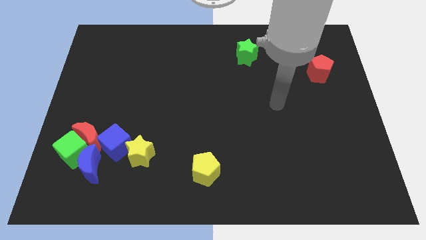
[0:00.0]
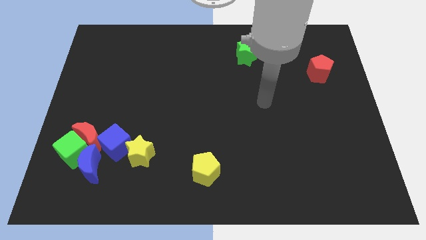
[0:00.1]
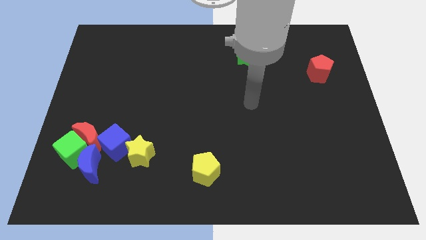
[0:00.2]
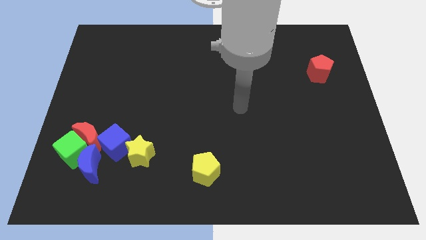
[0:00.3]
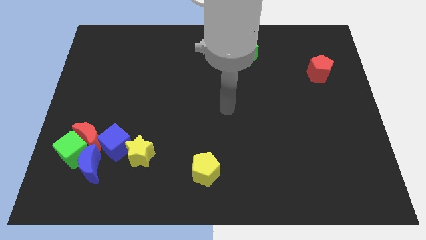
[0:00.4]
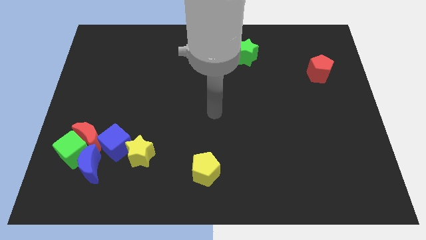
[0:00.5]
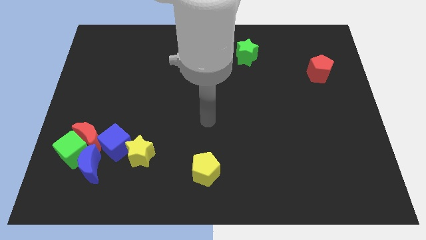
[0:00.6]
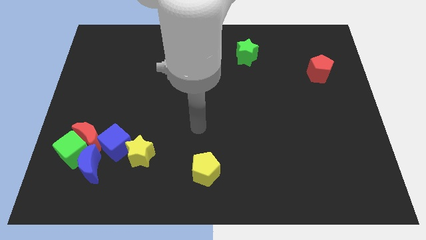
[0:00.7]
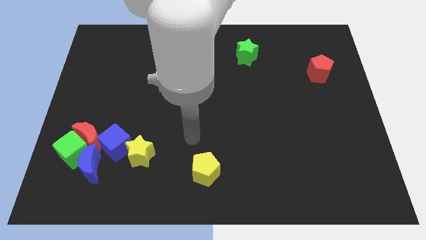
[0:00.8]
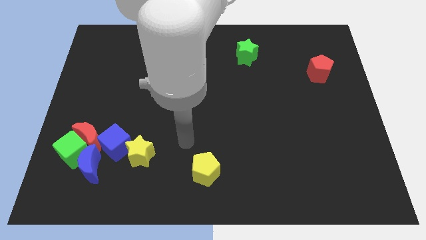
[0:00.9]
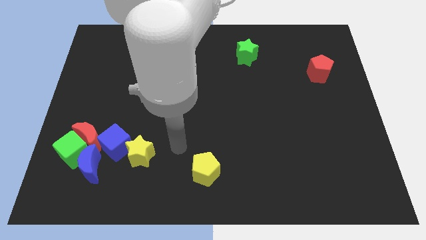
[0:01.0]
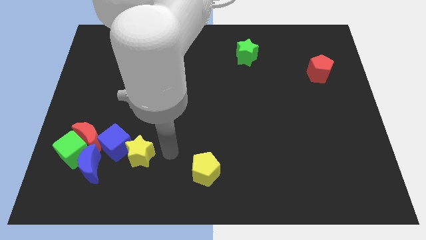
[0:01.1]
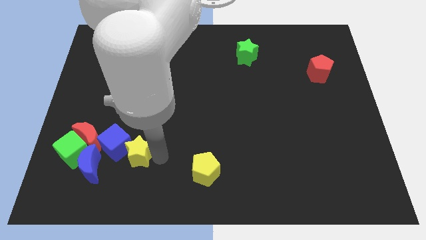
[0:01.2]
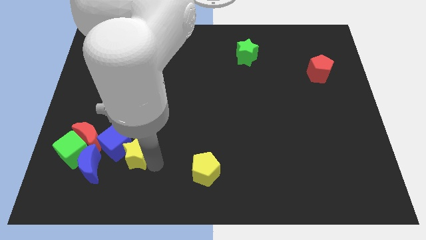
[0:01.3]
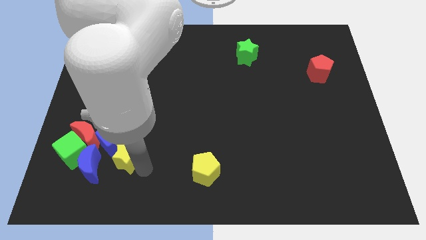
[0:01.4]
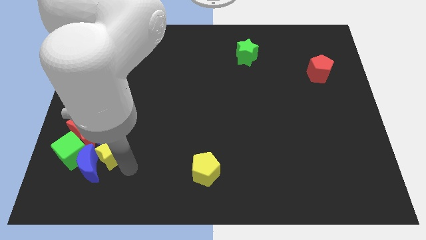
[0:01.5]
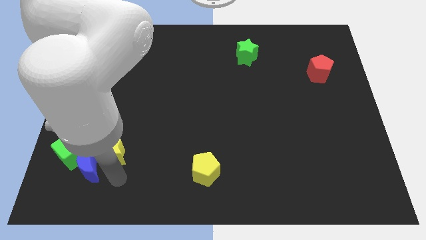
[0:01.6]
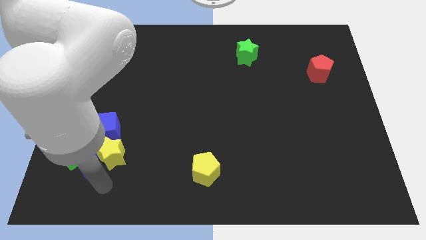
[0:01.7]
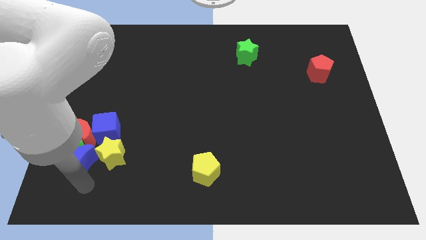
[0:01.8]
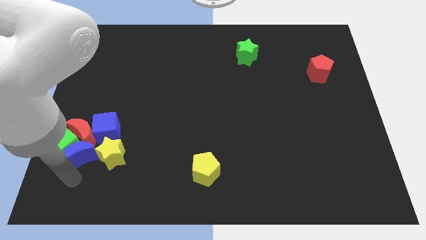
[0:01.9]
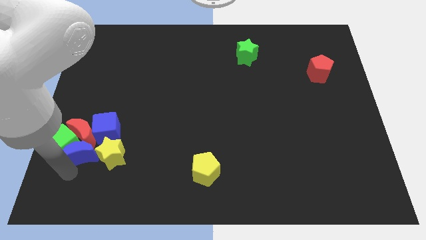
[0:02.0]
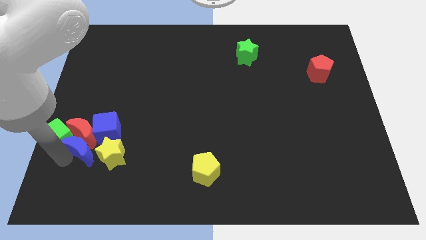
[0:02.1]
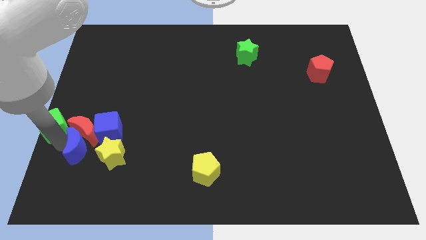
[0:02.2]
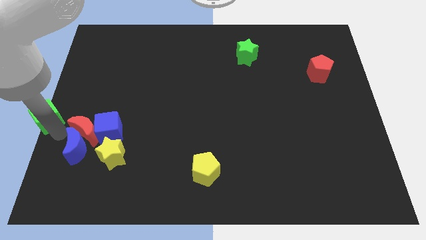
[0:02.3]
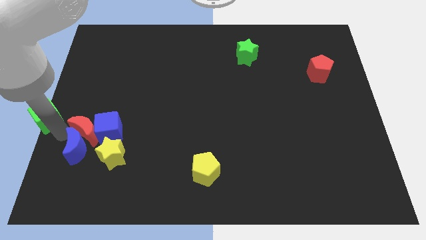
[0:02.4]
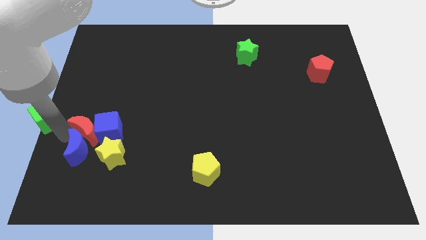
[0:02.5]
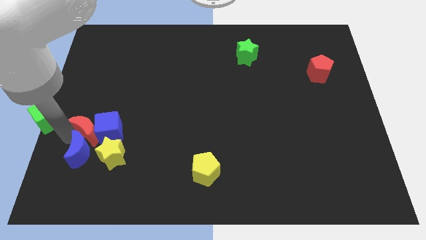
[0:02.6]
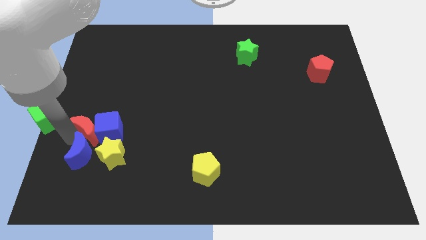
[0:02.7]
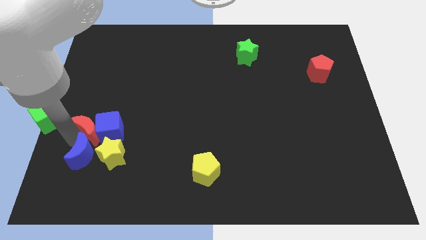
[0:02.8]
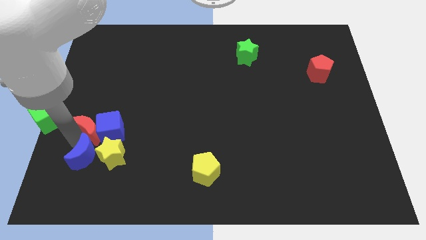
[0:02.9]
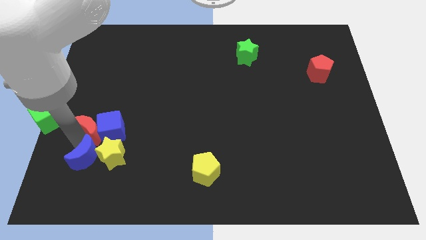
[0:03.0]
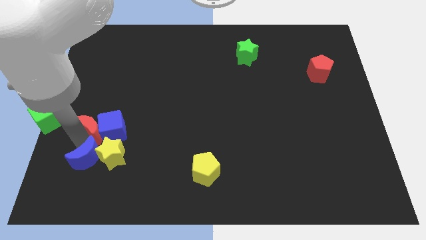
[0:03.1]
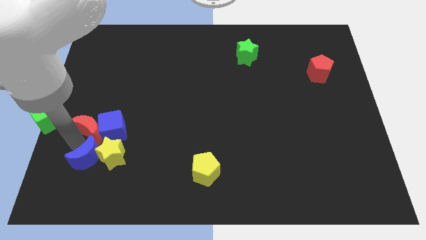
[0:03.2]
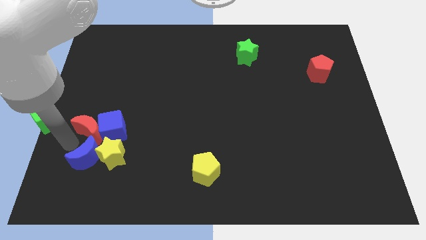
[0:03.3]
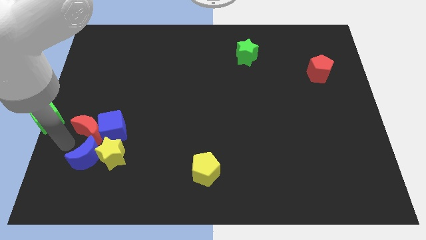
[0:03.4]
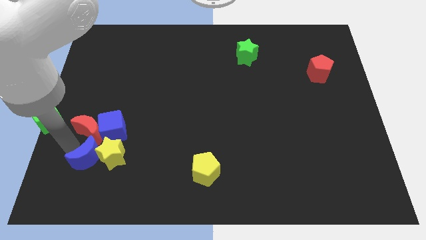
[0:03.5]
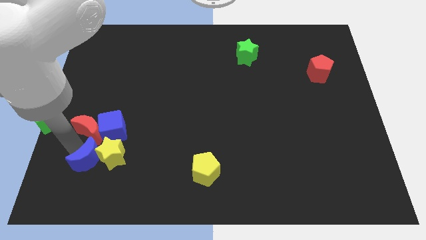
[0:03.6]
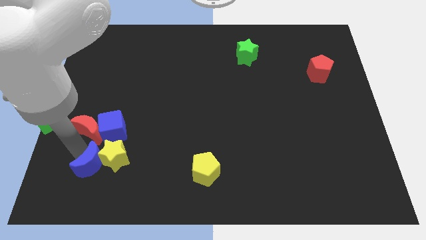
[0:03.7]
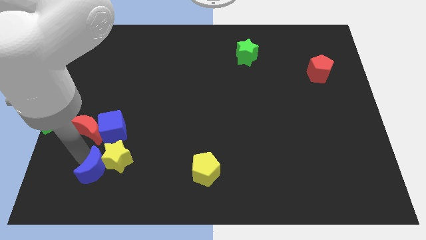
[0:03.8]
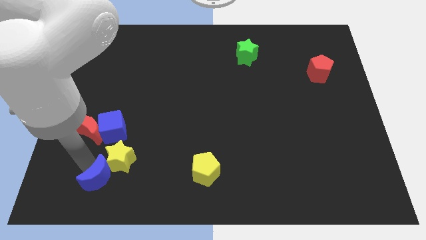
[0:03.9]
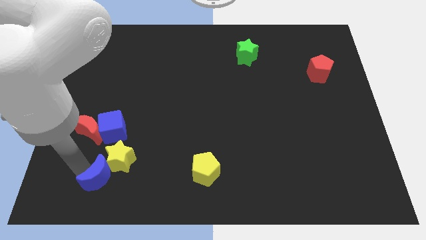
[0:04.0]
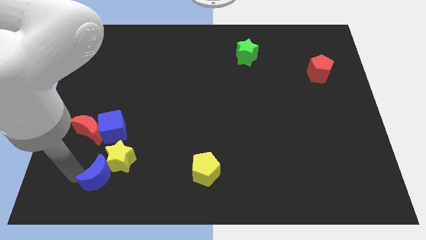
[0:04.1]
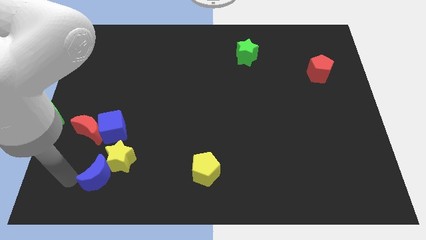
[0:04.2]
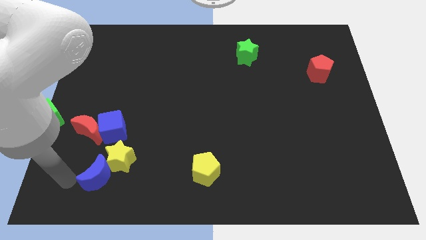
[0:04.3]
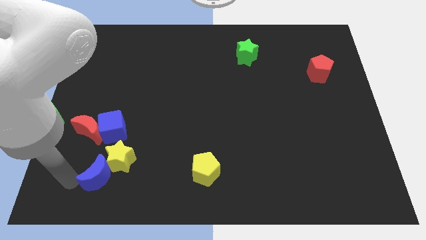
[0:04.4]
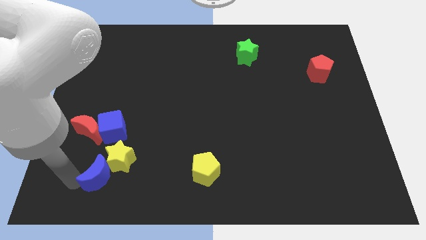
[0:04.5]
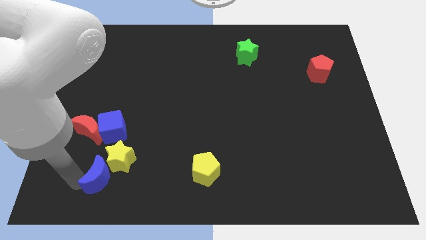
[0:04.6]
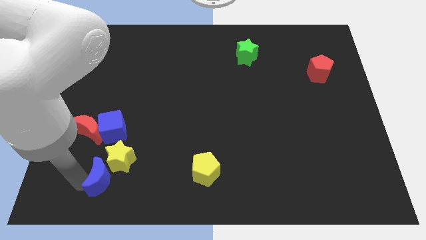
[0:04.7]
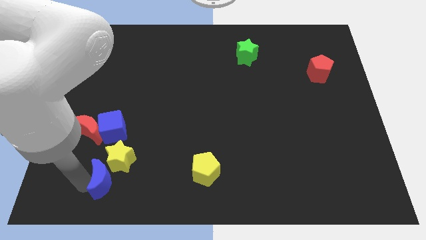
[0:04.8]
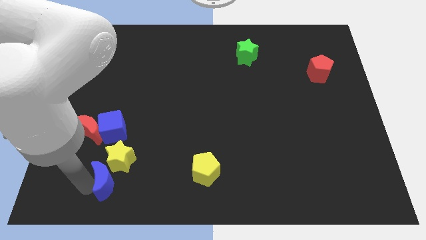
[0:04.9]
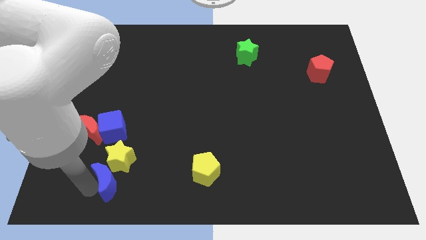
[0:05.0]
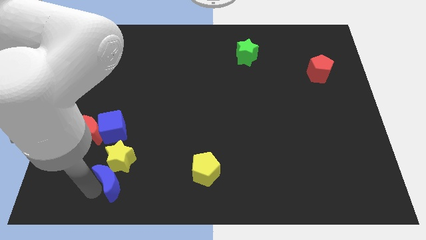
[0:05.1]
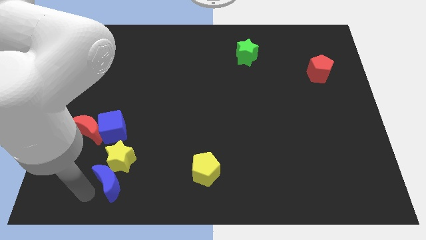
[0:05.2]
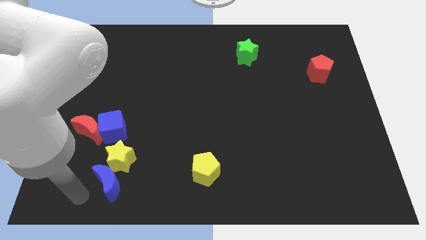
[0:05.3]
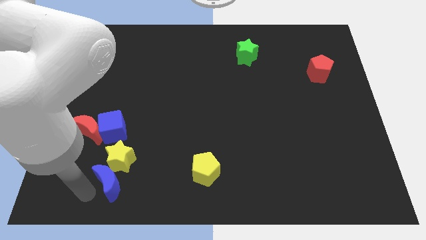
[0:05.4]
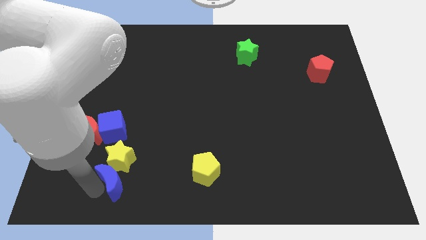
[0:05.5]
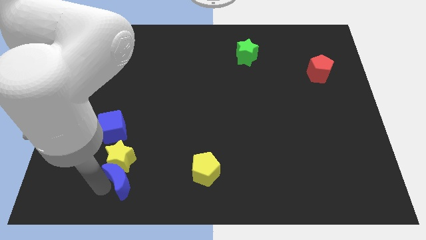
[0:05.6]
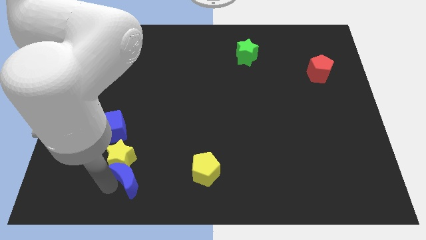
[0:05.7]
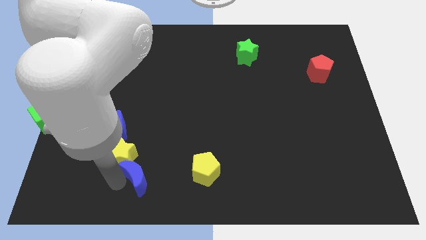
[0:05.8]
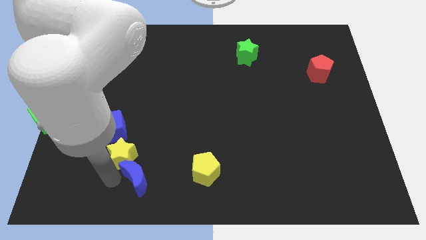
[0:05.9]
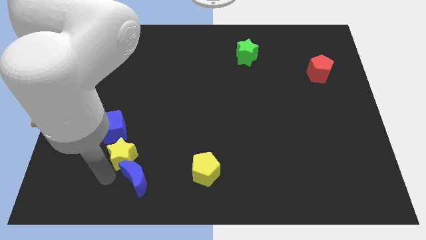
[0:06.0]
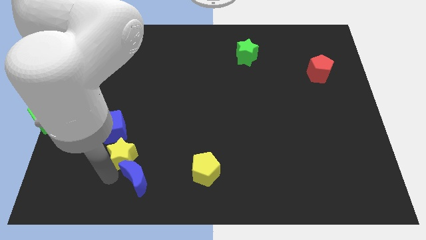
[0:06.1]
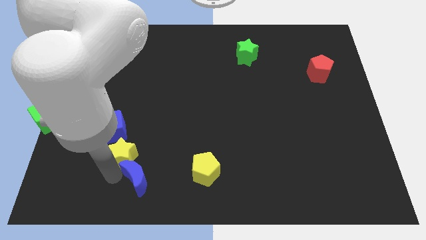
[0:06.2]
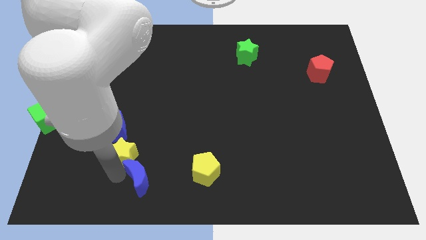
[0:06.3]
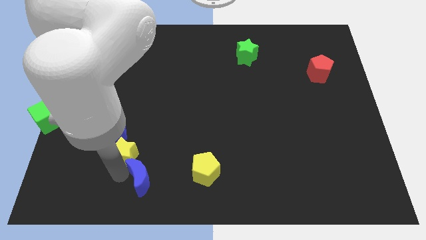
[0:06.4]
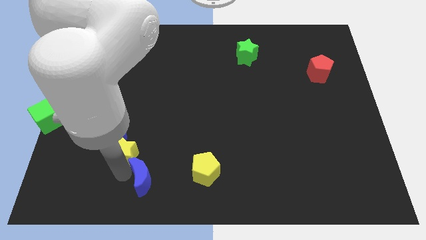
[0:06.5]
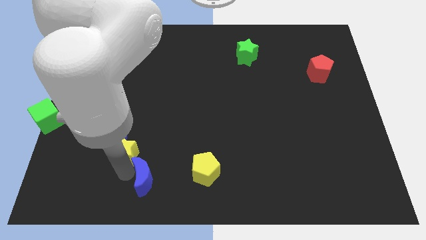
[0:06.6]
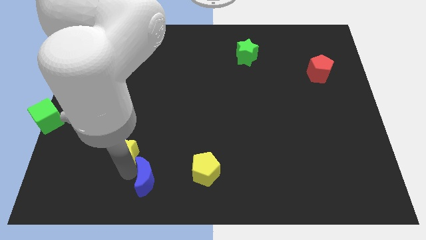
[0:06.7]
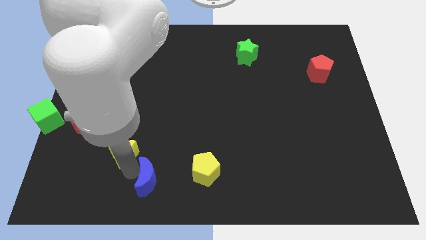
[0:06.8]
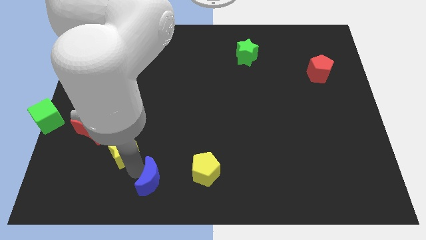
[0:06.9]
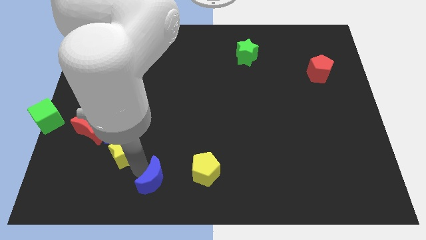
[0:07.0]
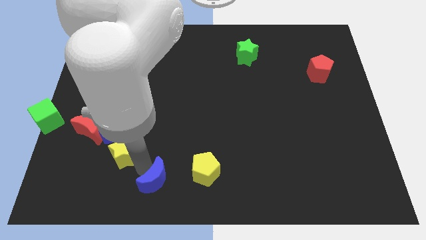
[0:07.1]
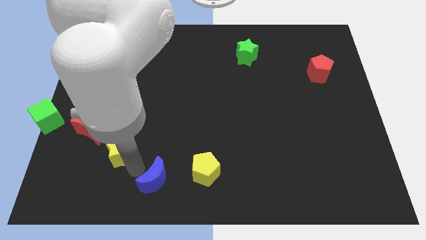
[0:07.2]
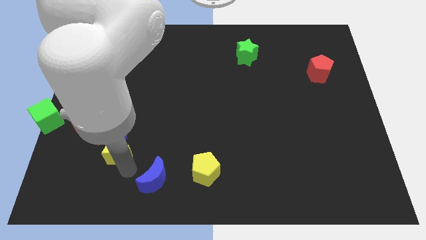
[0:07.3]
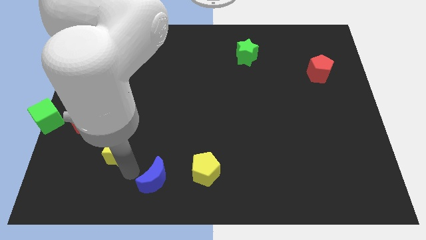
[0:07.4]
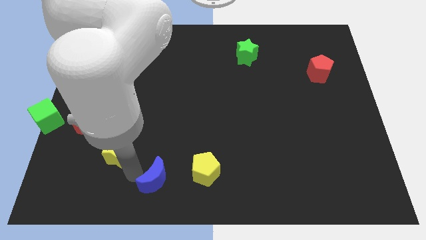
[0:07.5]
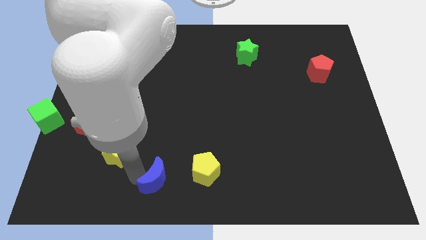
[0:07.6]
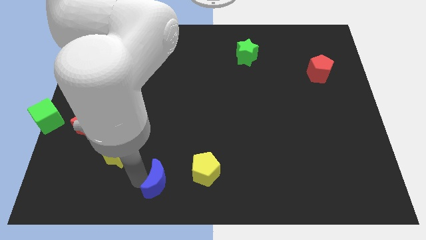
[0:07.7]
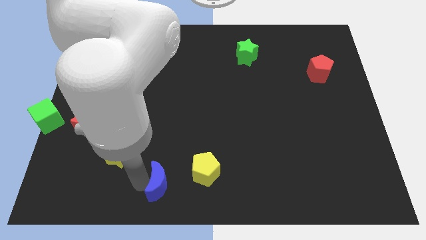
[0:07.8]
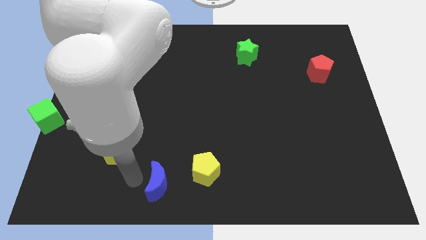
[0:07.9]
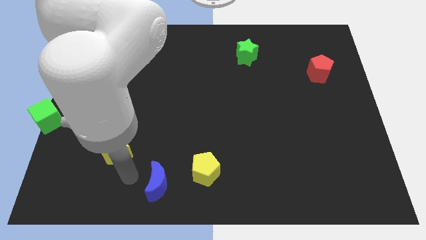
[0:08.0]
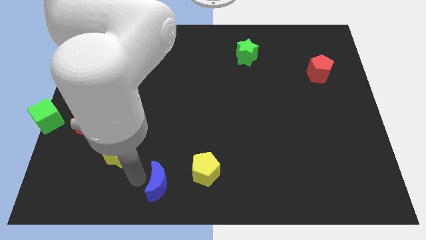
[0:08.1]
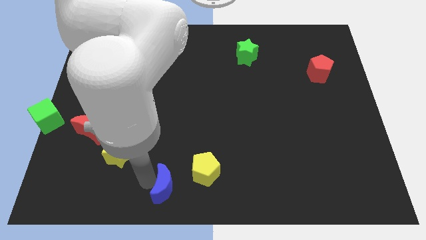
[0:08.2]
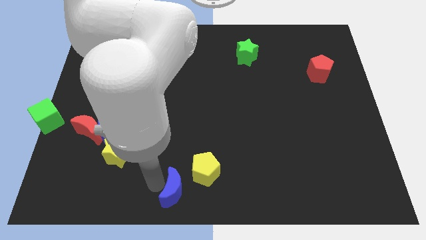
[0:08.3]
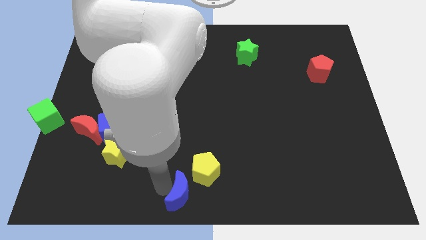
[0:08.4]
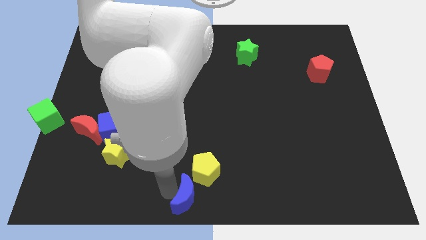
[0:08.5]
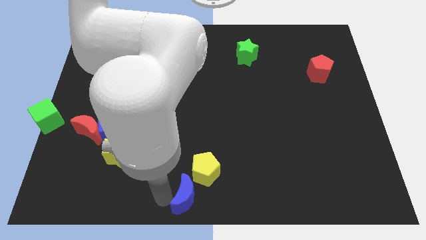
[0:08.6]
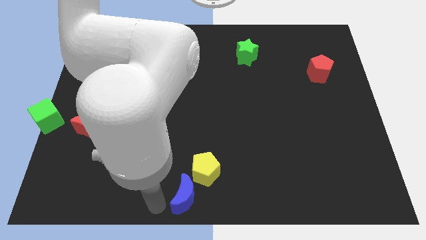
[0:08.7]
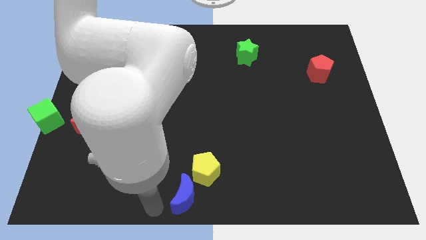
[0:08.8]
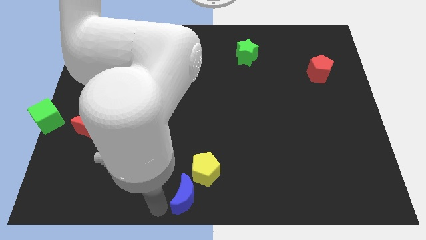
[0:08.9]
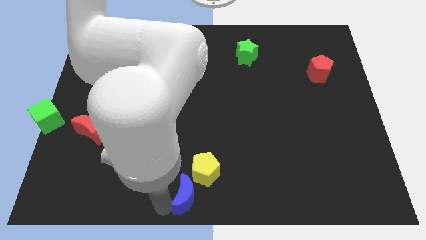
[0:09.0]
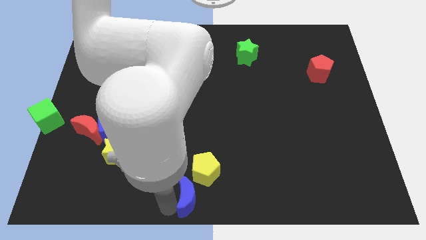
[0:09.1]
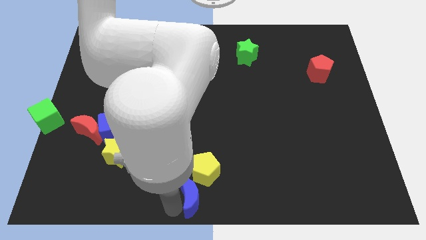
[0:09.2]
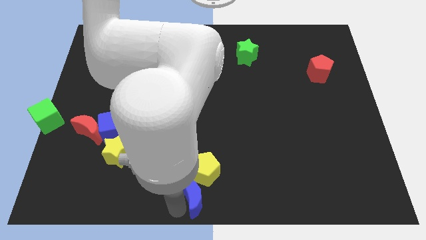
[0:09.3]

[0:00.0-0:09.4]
slide the blue moon right
